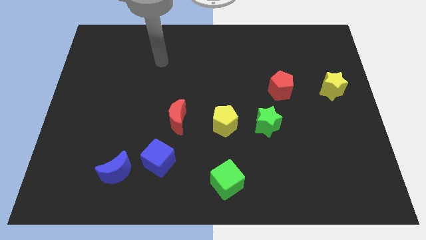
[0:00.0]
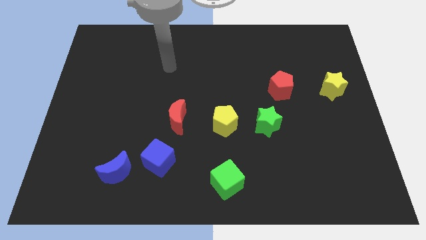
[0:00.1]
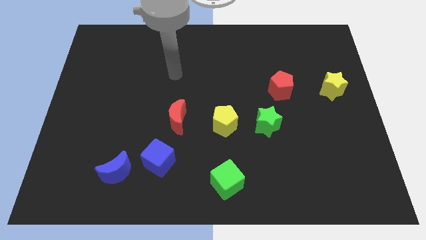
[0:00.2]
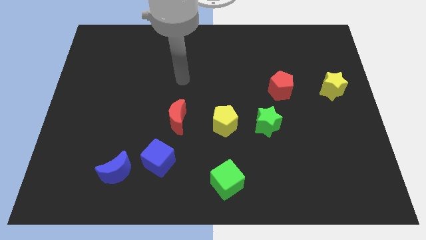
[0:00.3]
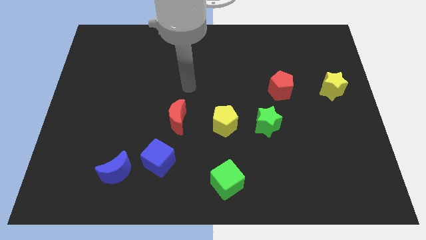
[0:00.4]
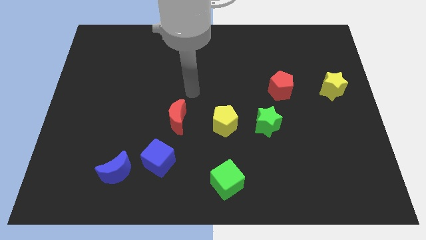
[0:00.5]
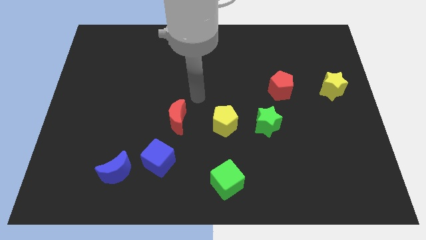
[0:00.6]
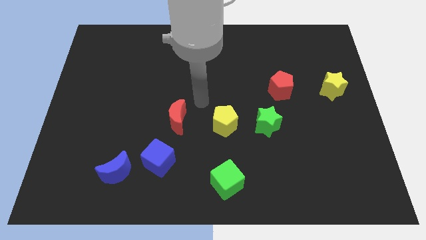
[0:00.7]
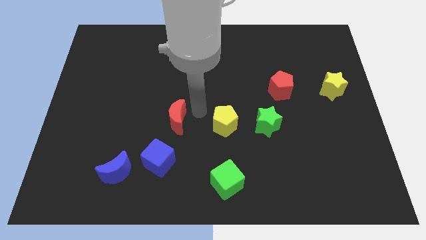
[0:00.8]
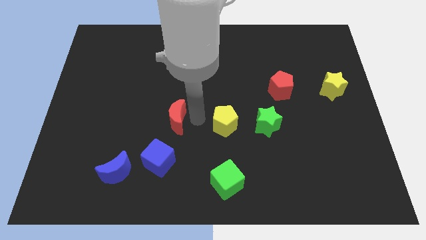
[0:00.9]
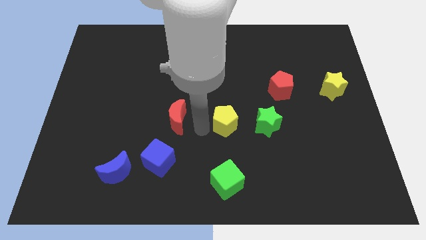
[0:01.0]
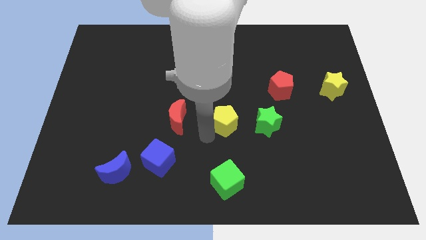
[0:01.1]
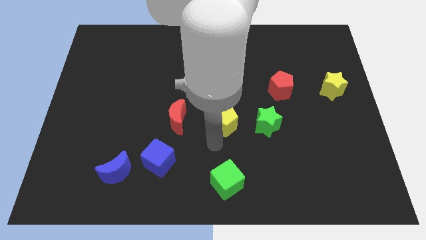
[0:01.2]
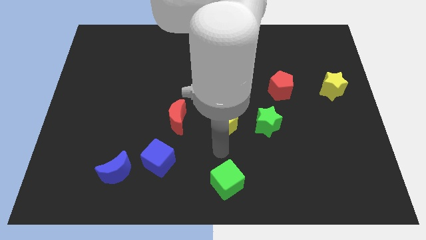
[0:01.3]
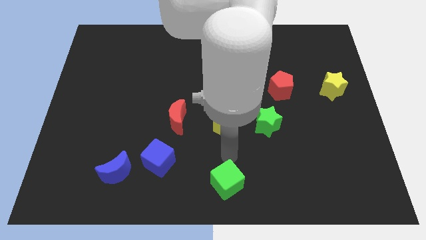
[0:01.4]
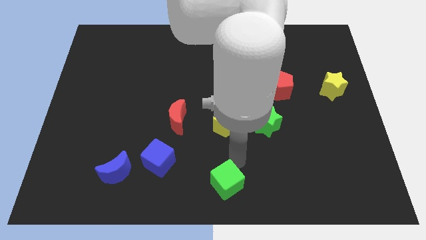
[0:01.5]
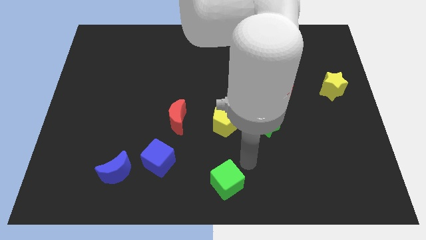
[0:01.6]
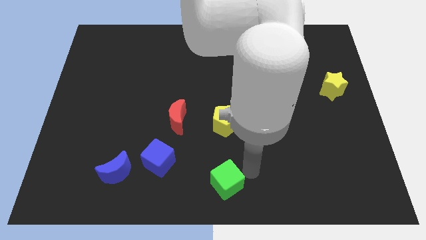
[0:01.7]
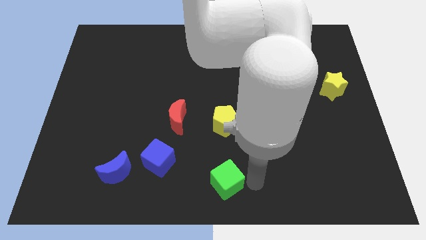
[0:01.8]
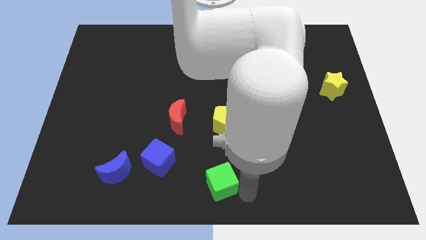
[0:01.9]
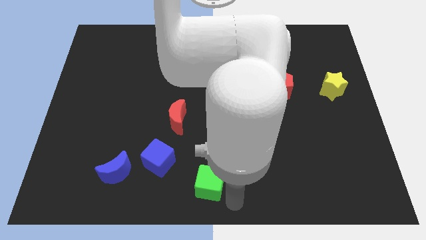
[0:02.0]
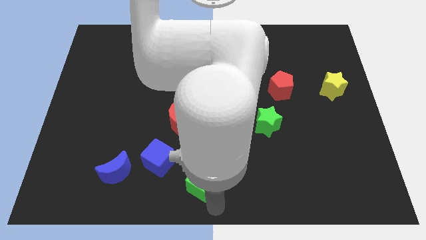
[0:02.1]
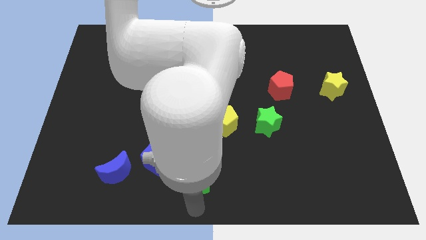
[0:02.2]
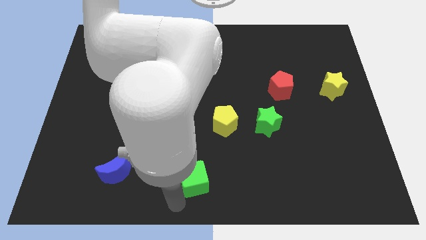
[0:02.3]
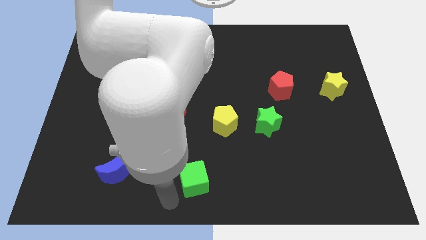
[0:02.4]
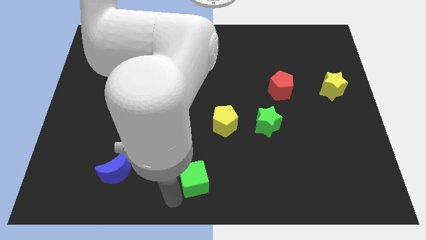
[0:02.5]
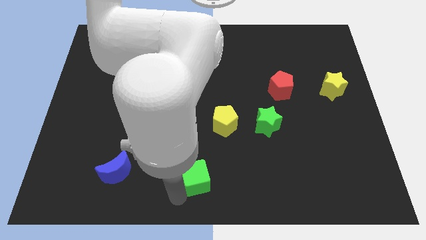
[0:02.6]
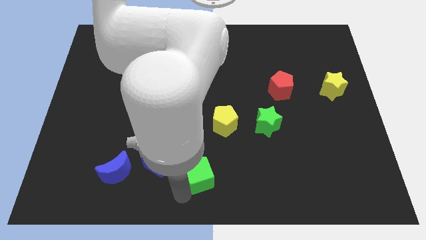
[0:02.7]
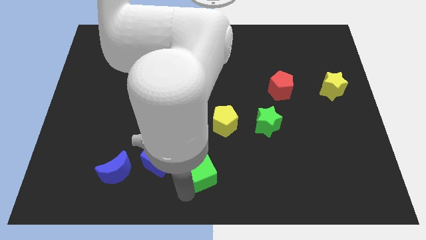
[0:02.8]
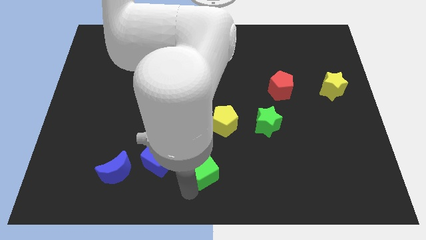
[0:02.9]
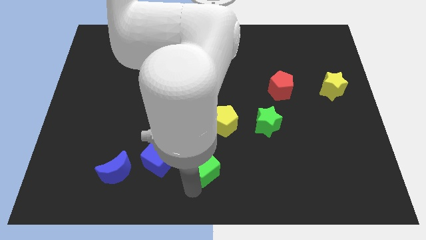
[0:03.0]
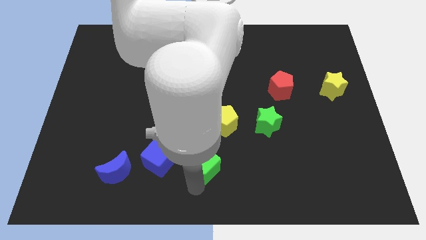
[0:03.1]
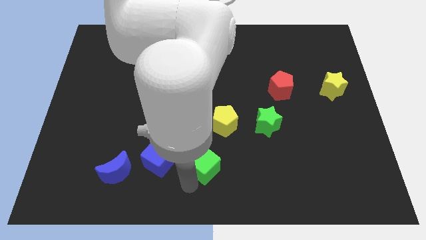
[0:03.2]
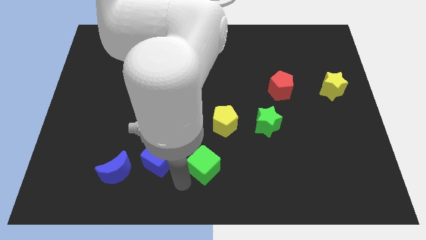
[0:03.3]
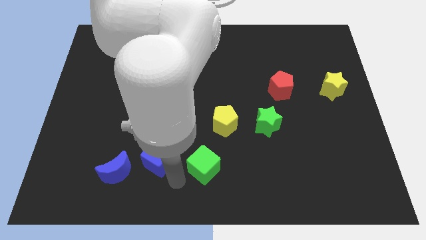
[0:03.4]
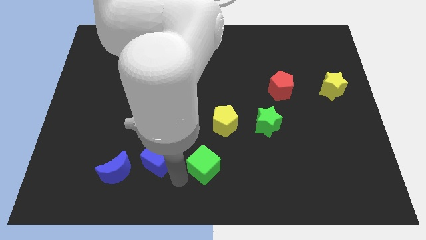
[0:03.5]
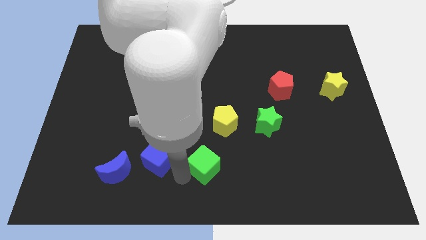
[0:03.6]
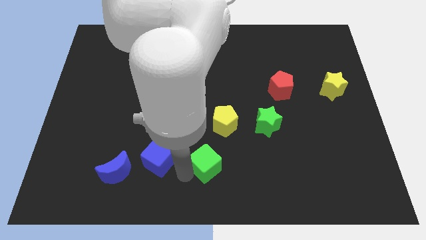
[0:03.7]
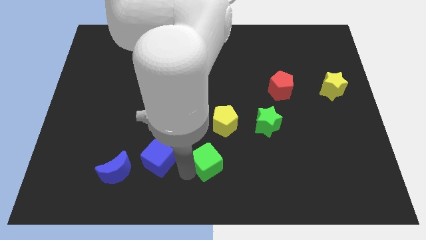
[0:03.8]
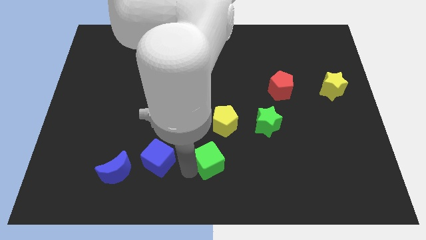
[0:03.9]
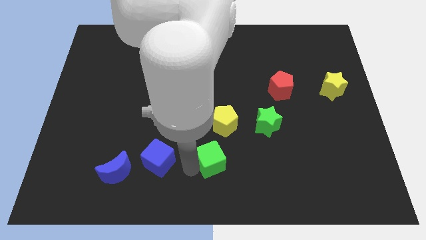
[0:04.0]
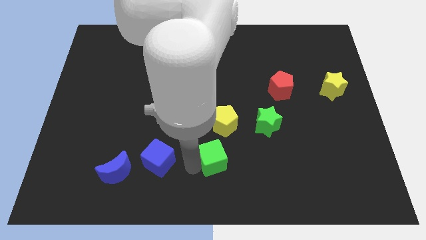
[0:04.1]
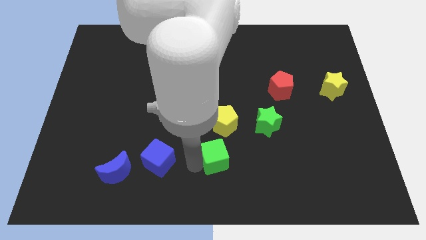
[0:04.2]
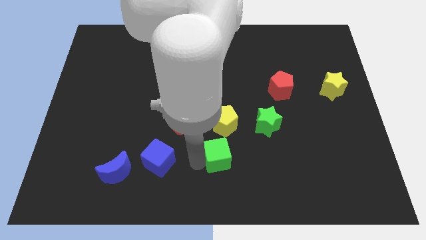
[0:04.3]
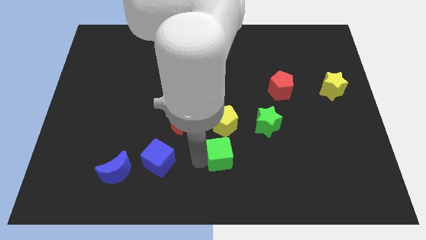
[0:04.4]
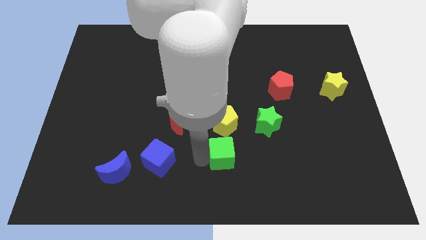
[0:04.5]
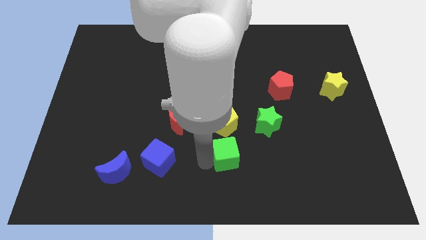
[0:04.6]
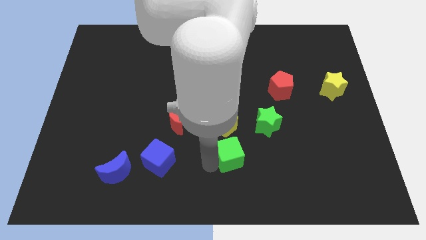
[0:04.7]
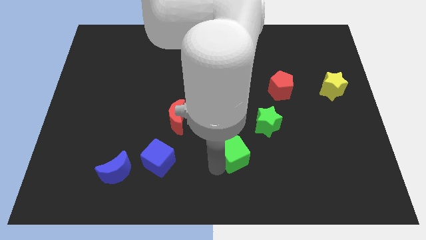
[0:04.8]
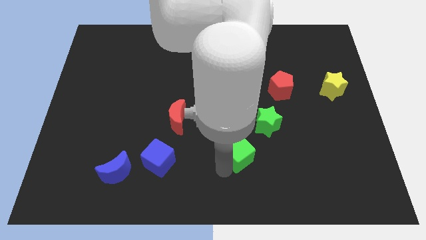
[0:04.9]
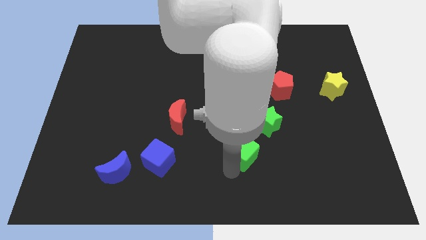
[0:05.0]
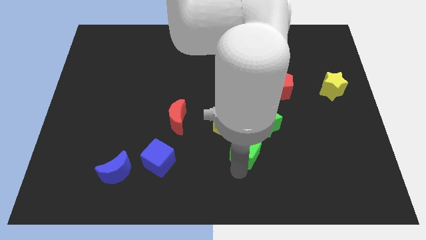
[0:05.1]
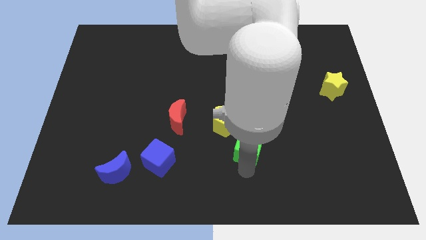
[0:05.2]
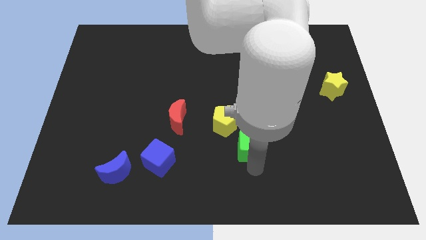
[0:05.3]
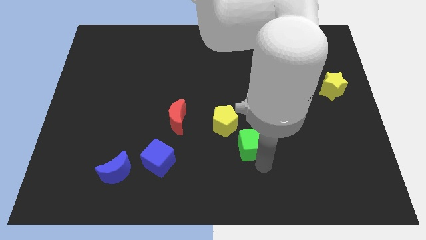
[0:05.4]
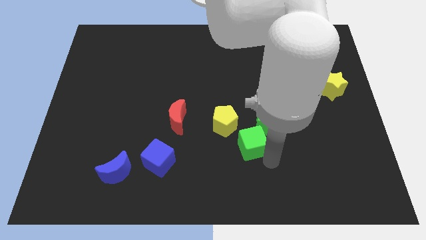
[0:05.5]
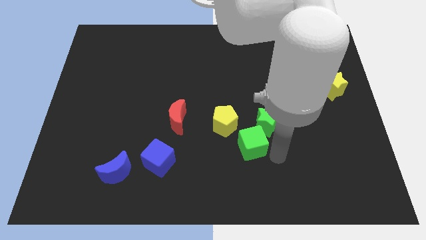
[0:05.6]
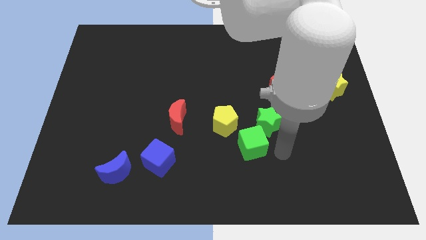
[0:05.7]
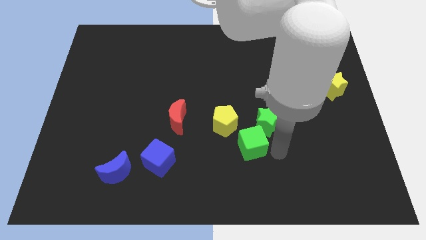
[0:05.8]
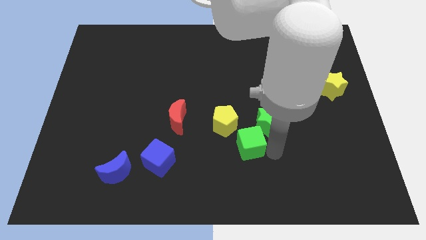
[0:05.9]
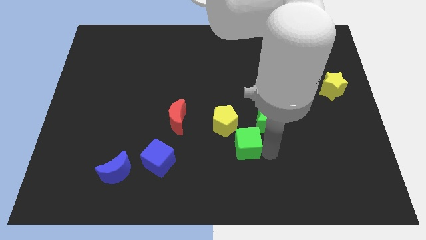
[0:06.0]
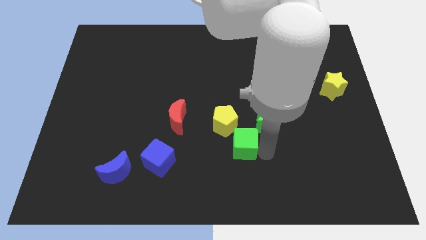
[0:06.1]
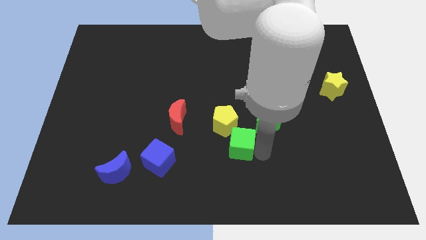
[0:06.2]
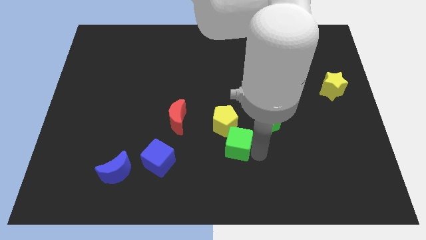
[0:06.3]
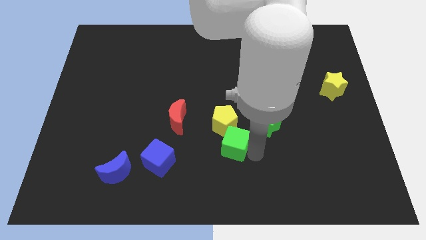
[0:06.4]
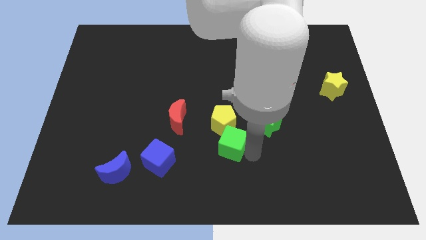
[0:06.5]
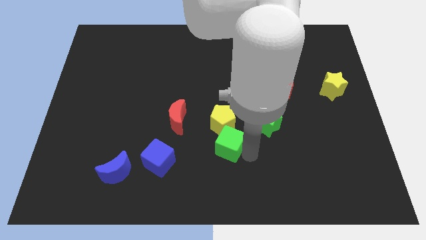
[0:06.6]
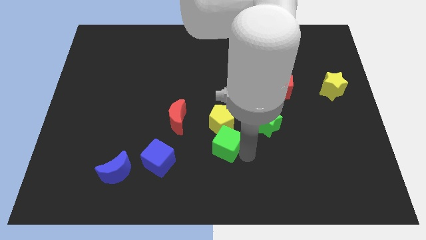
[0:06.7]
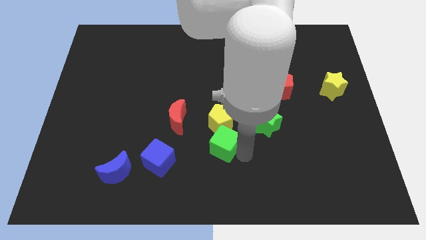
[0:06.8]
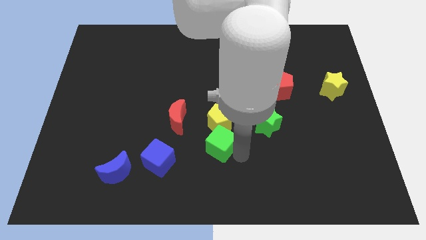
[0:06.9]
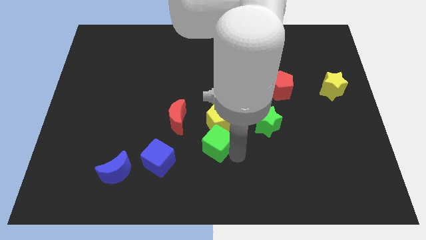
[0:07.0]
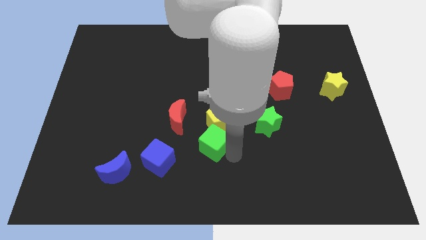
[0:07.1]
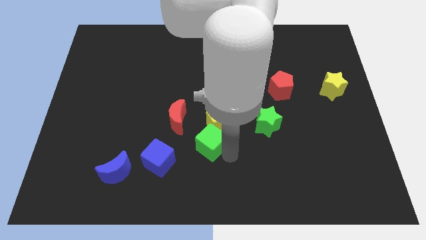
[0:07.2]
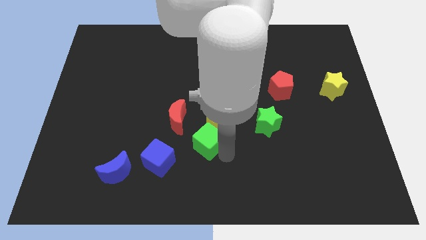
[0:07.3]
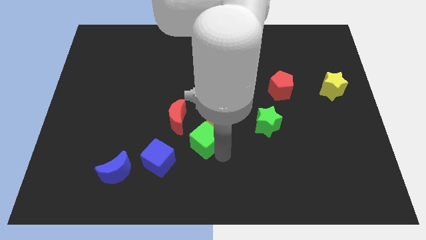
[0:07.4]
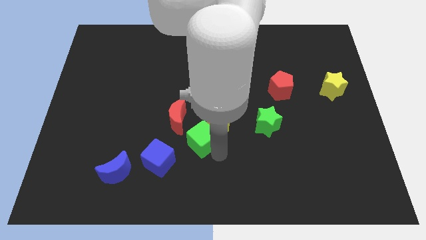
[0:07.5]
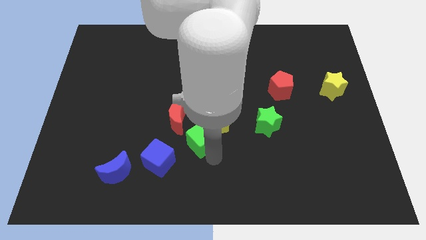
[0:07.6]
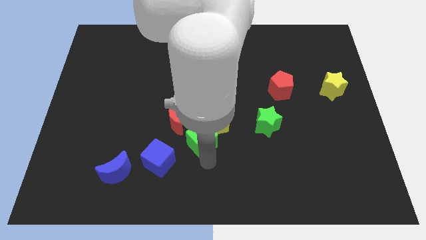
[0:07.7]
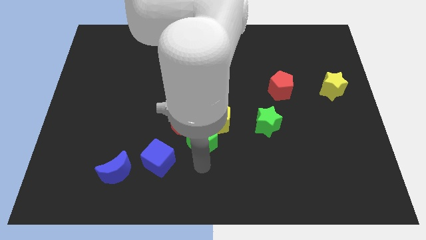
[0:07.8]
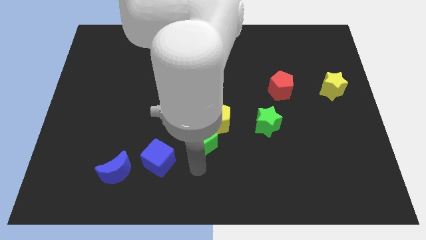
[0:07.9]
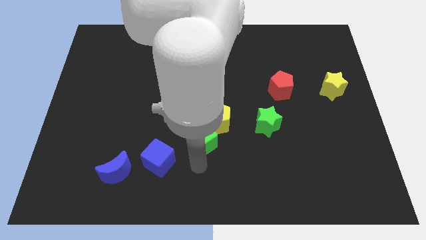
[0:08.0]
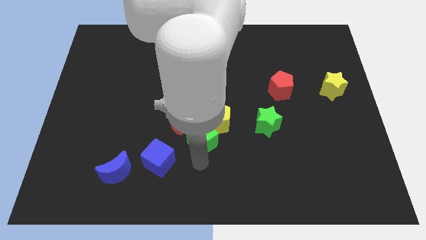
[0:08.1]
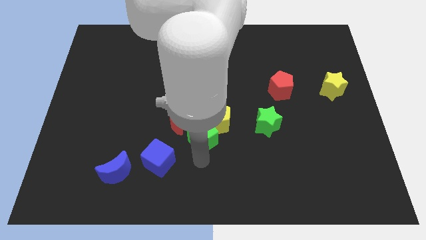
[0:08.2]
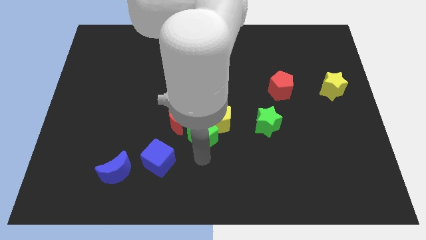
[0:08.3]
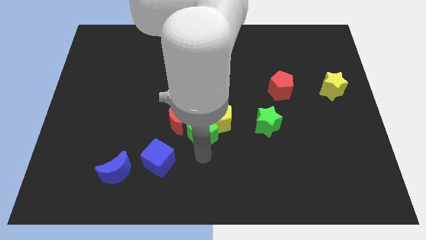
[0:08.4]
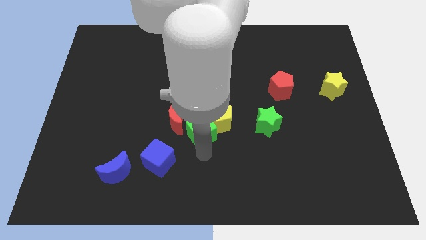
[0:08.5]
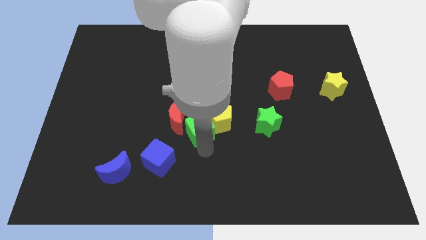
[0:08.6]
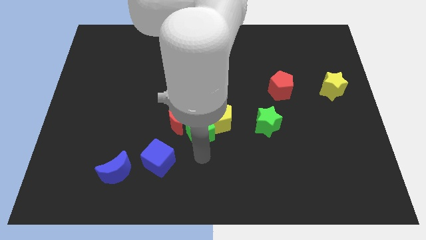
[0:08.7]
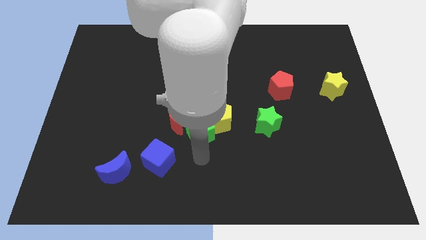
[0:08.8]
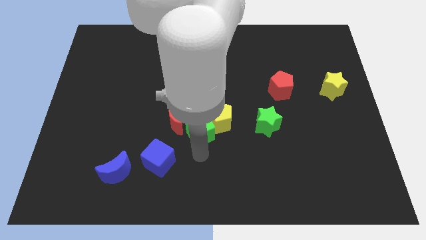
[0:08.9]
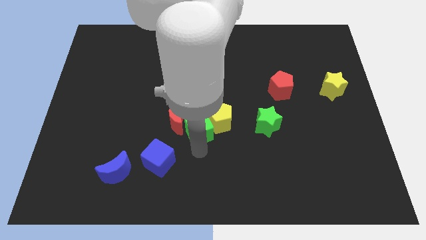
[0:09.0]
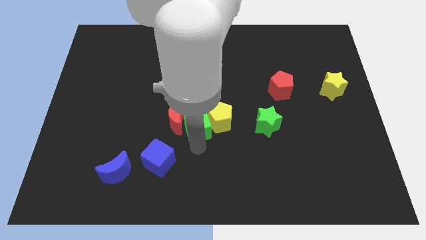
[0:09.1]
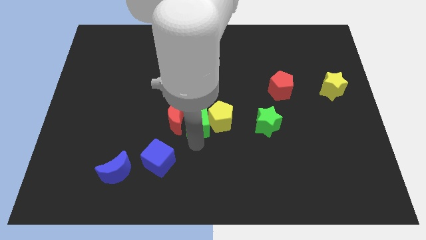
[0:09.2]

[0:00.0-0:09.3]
push the green cube to the top right of the red moon
